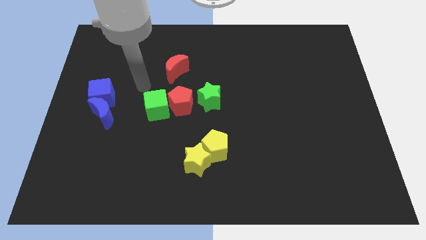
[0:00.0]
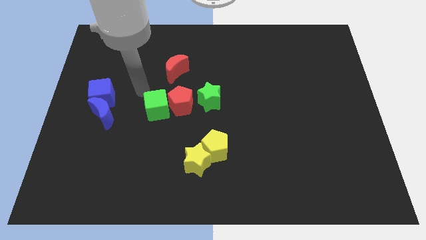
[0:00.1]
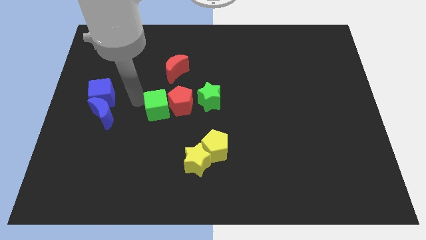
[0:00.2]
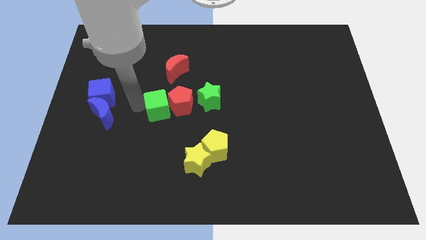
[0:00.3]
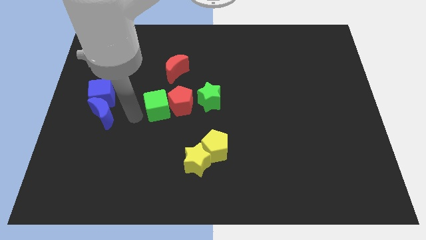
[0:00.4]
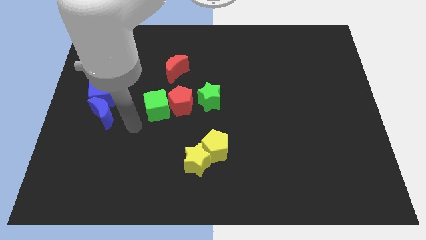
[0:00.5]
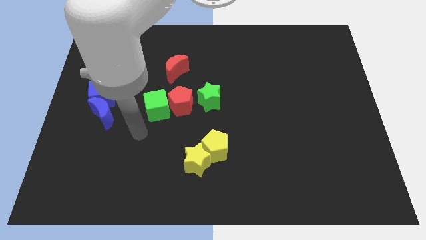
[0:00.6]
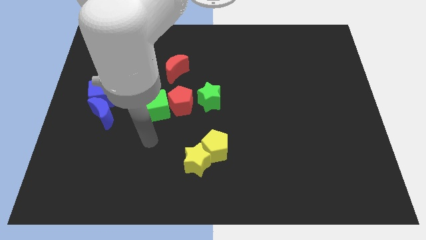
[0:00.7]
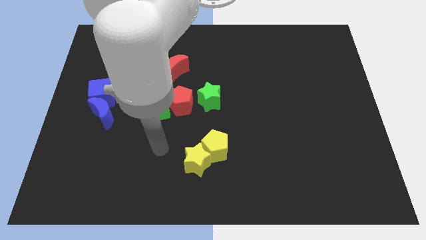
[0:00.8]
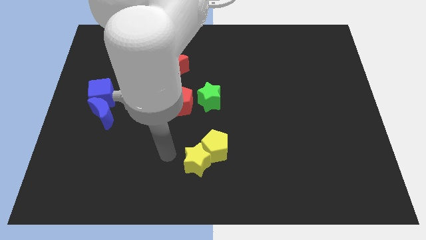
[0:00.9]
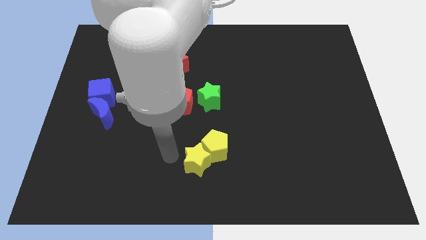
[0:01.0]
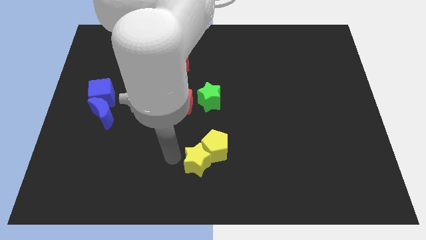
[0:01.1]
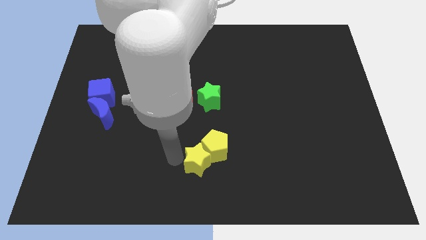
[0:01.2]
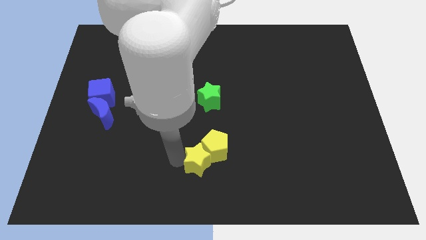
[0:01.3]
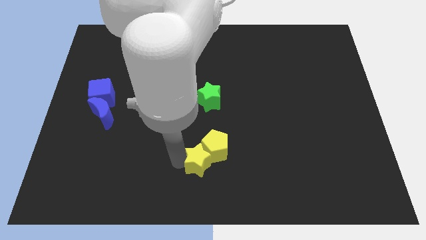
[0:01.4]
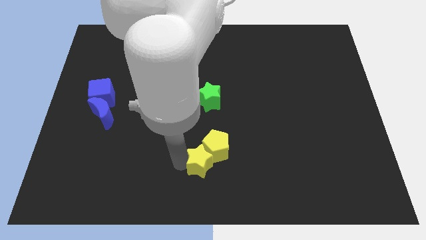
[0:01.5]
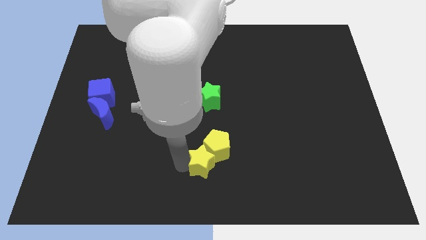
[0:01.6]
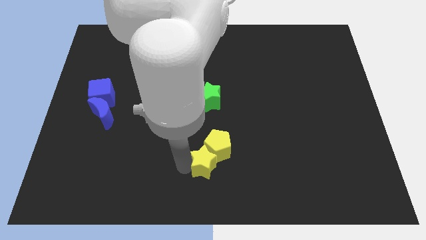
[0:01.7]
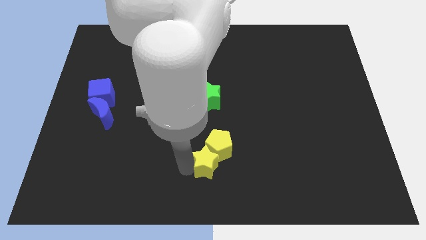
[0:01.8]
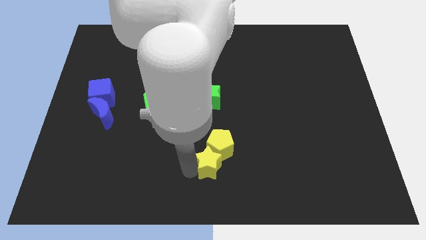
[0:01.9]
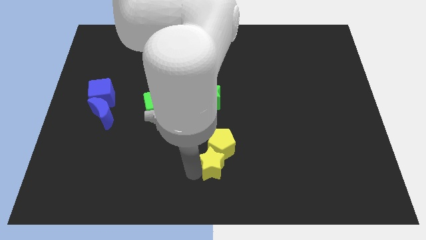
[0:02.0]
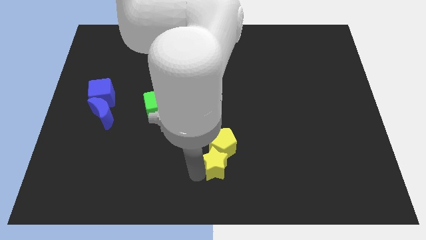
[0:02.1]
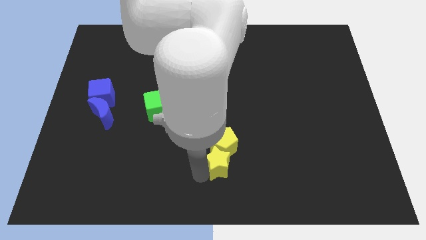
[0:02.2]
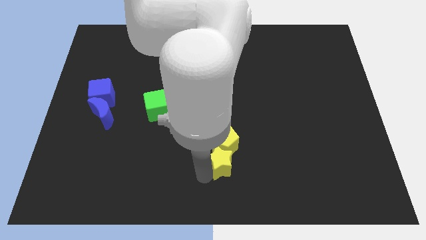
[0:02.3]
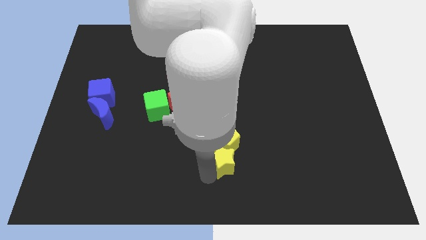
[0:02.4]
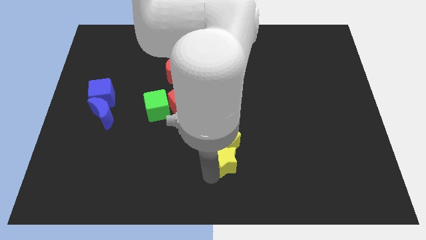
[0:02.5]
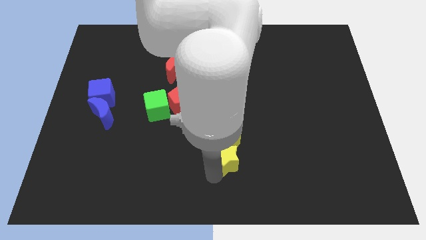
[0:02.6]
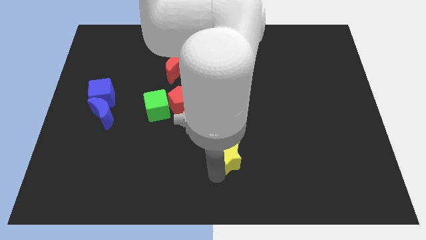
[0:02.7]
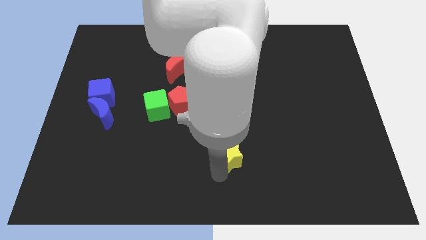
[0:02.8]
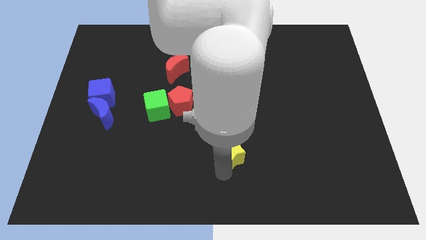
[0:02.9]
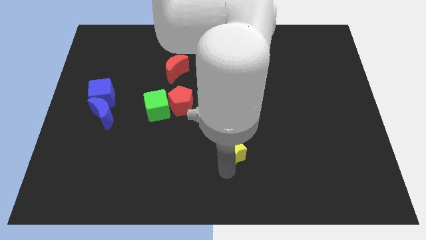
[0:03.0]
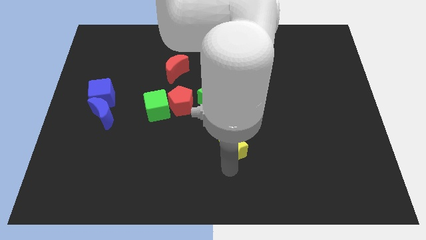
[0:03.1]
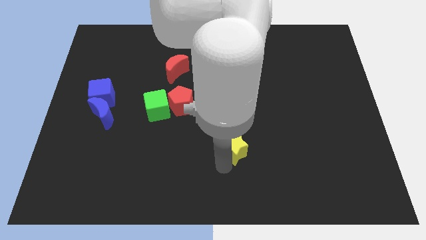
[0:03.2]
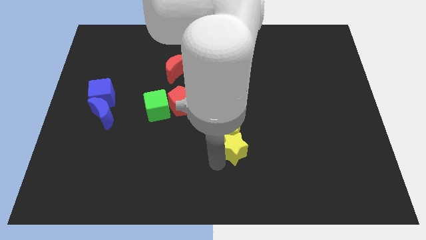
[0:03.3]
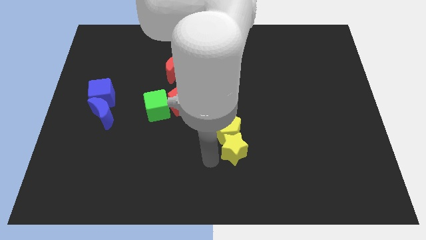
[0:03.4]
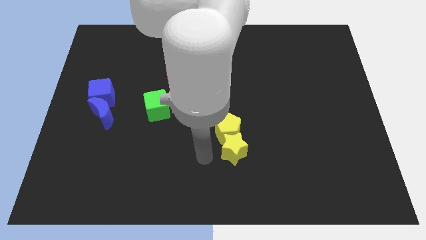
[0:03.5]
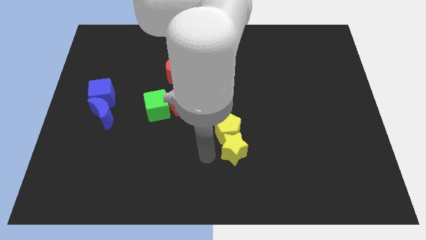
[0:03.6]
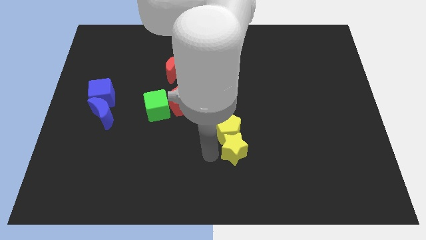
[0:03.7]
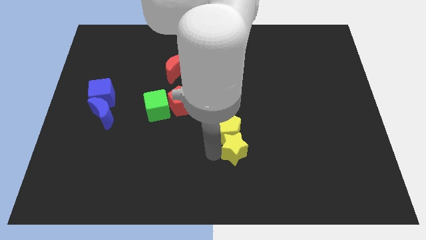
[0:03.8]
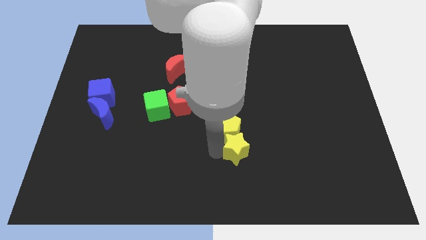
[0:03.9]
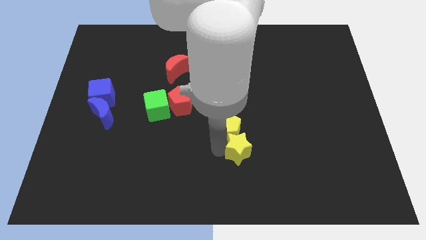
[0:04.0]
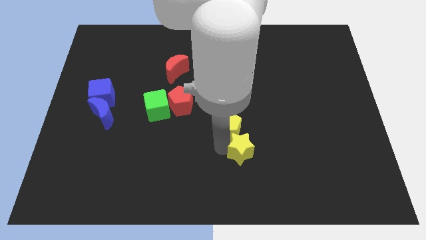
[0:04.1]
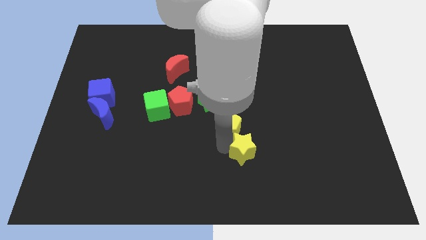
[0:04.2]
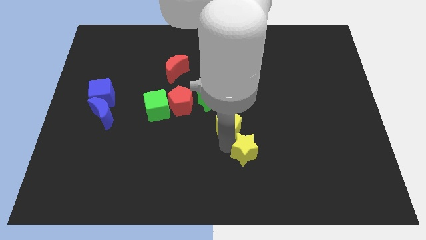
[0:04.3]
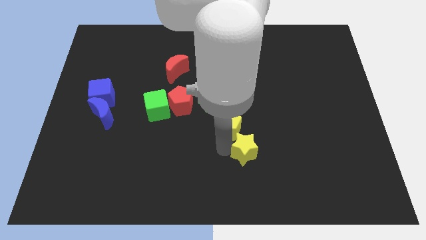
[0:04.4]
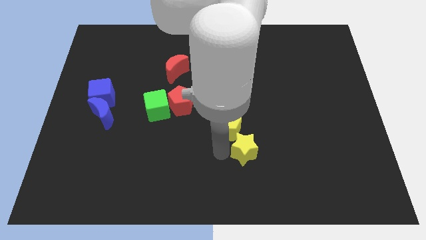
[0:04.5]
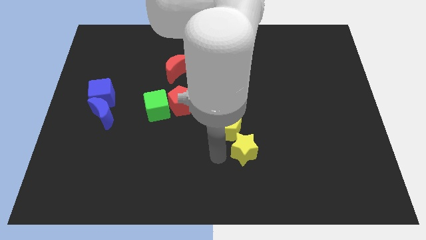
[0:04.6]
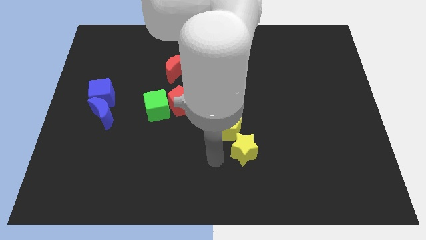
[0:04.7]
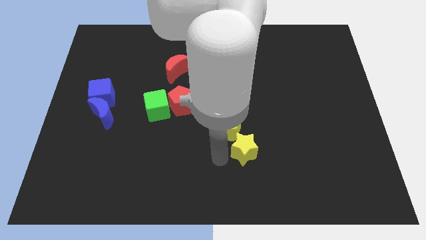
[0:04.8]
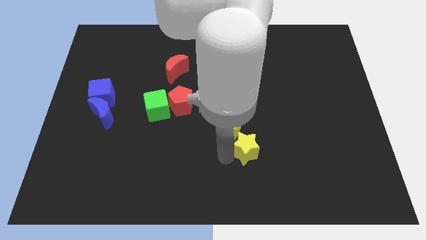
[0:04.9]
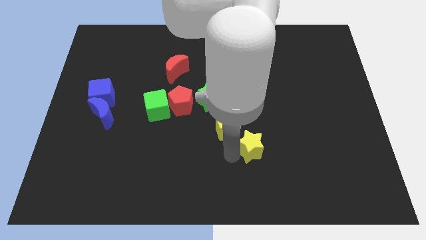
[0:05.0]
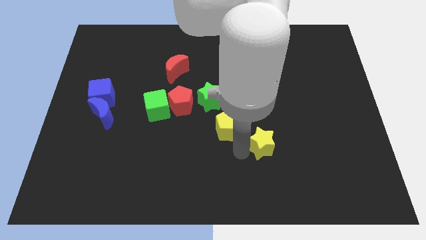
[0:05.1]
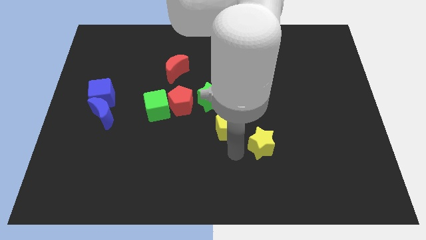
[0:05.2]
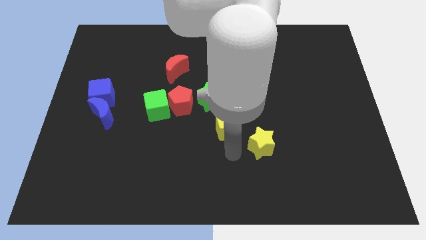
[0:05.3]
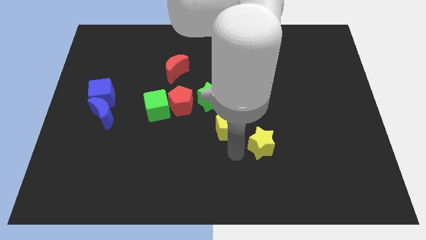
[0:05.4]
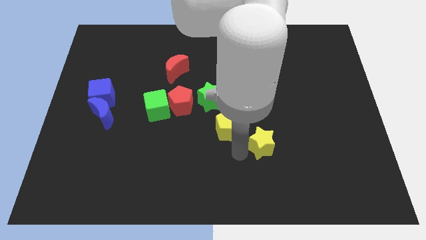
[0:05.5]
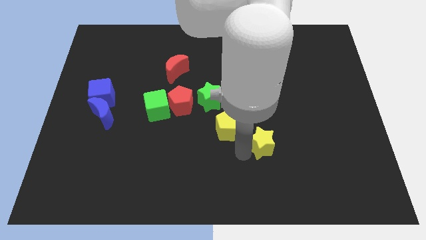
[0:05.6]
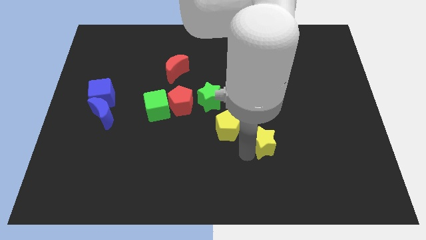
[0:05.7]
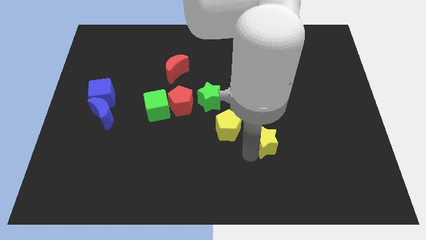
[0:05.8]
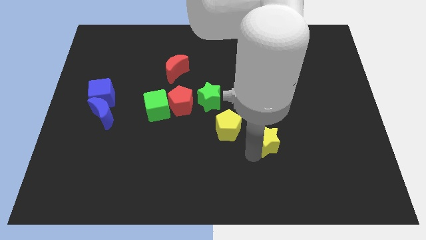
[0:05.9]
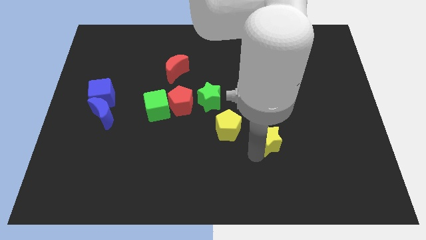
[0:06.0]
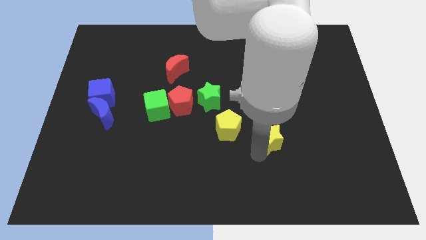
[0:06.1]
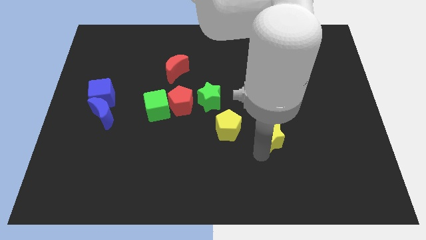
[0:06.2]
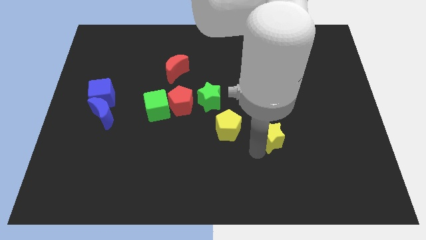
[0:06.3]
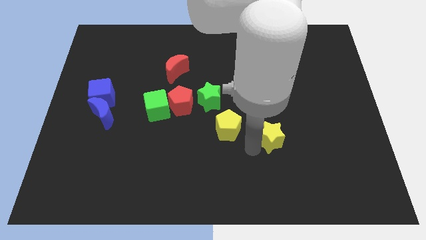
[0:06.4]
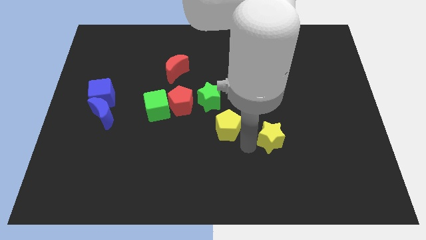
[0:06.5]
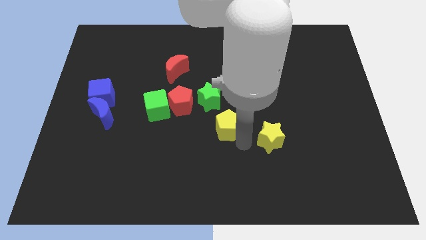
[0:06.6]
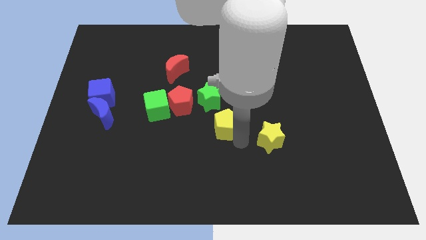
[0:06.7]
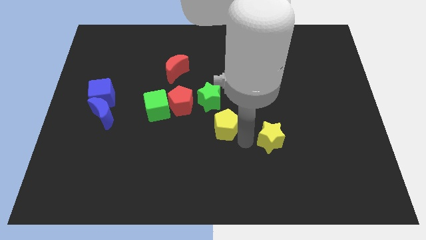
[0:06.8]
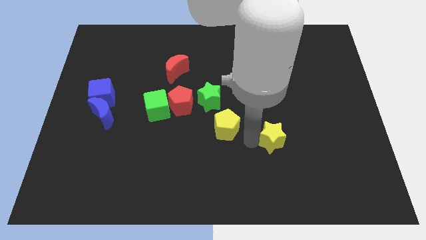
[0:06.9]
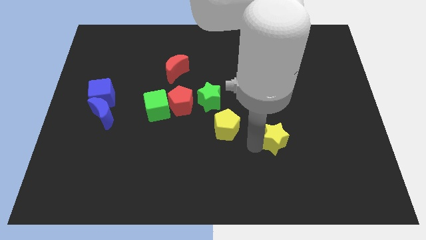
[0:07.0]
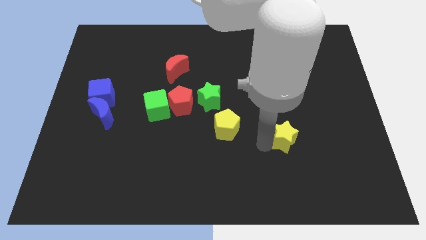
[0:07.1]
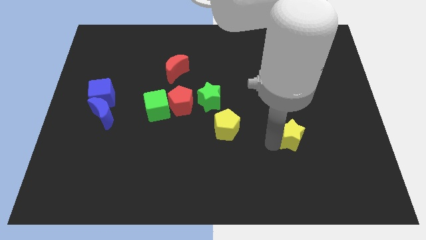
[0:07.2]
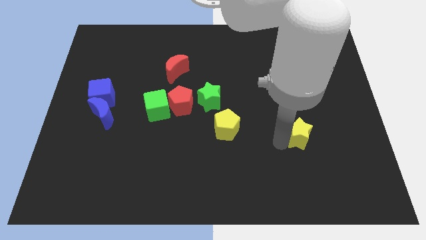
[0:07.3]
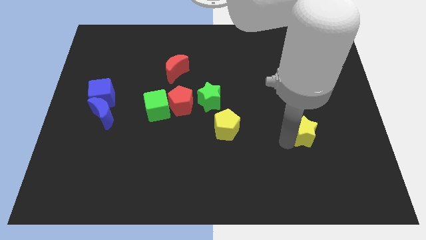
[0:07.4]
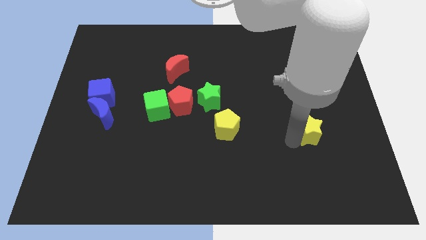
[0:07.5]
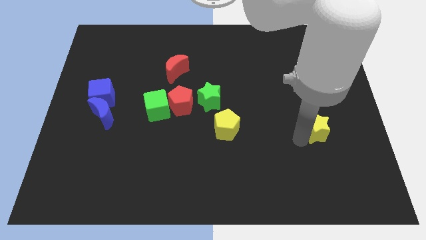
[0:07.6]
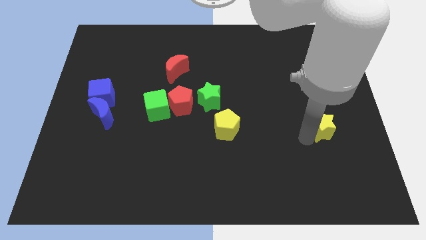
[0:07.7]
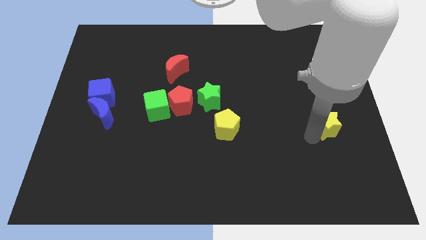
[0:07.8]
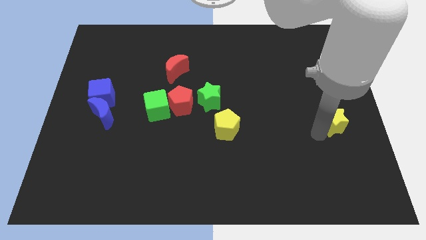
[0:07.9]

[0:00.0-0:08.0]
push the yellow star to the right side
